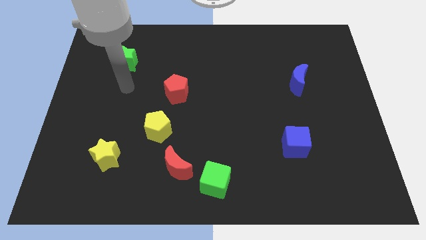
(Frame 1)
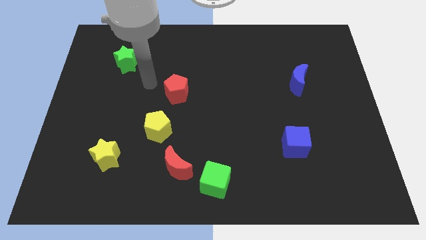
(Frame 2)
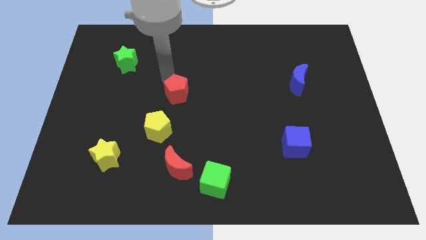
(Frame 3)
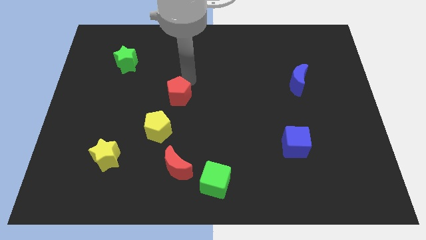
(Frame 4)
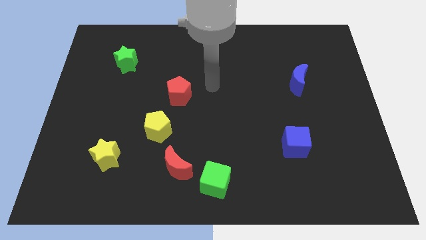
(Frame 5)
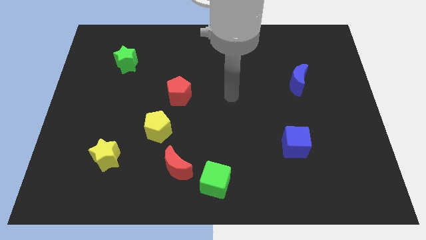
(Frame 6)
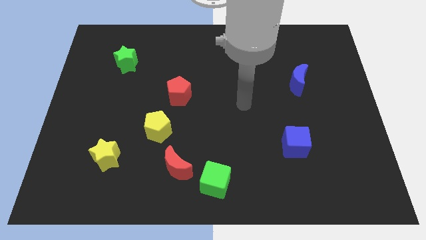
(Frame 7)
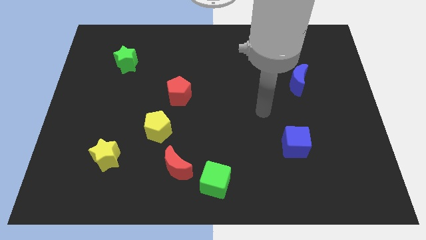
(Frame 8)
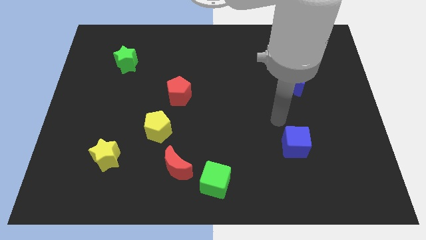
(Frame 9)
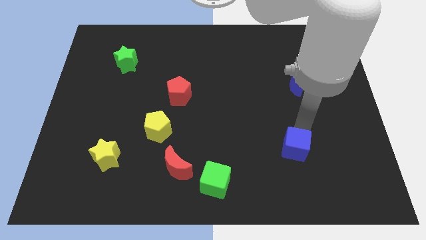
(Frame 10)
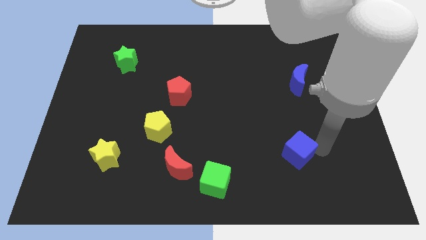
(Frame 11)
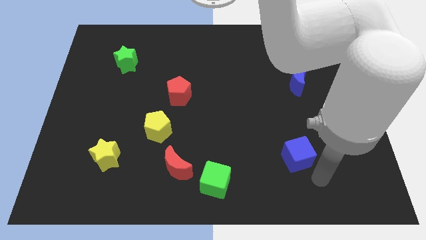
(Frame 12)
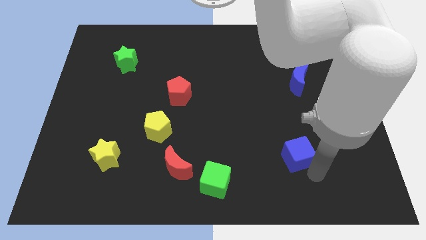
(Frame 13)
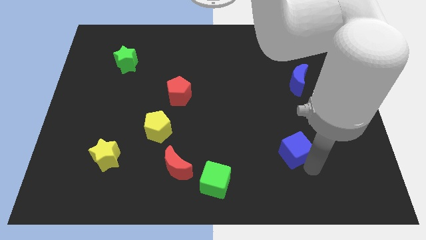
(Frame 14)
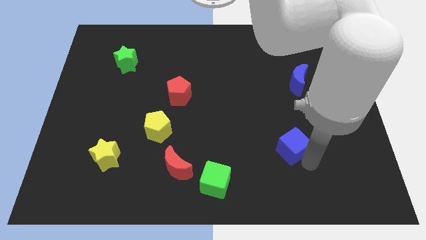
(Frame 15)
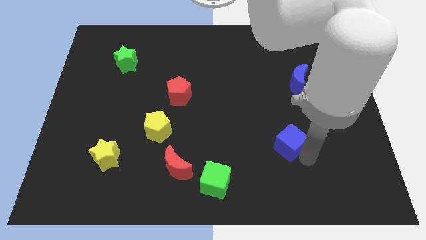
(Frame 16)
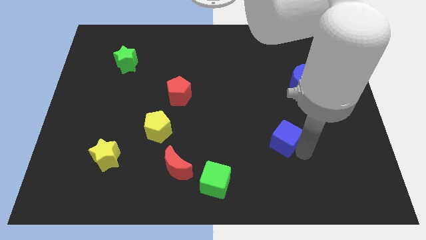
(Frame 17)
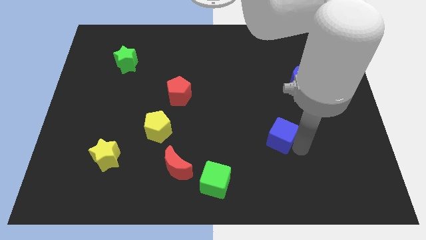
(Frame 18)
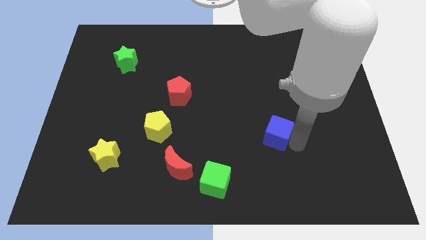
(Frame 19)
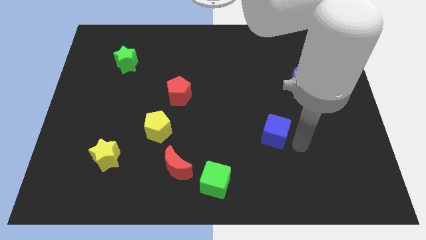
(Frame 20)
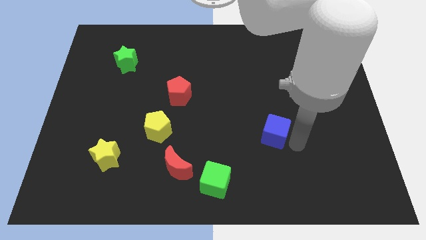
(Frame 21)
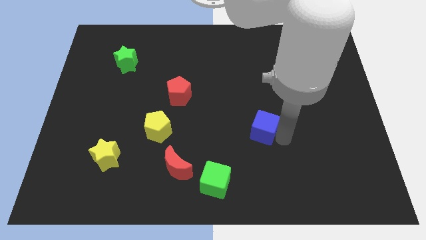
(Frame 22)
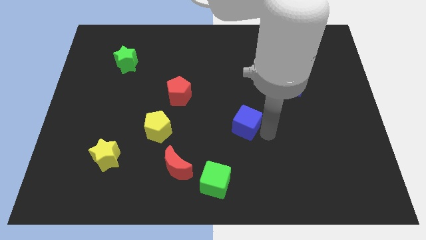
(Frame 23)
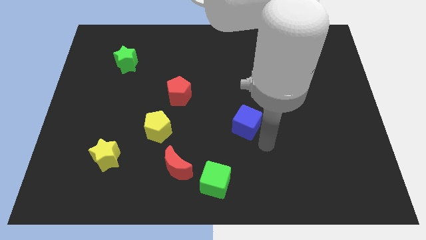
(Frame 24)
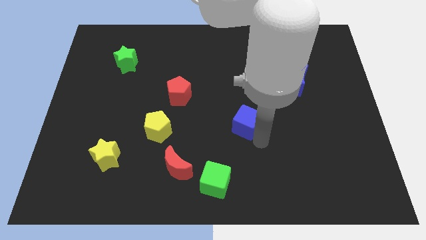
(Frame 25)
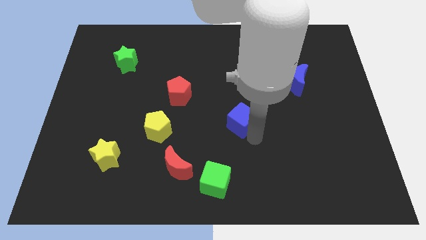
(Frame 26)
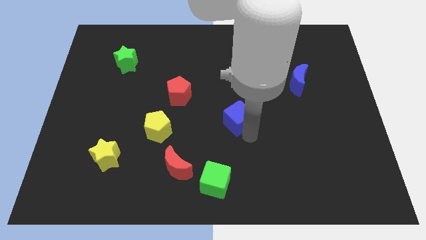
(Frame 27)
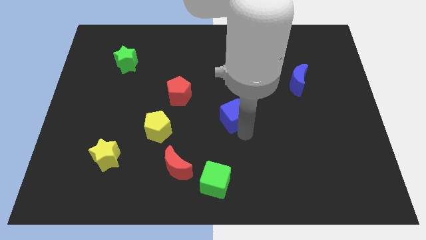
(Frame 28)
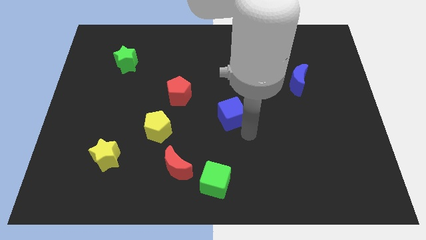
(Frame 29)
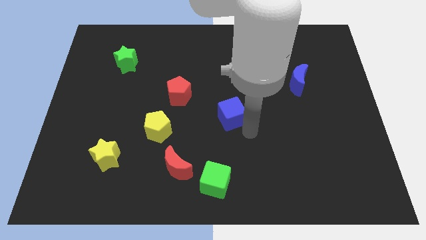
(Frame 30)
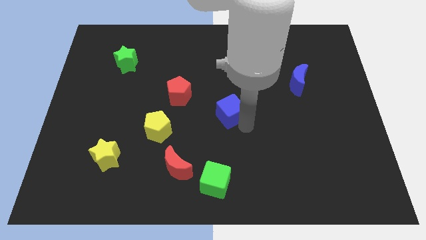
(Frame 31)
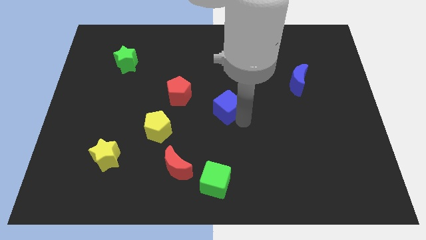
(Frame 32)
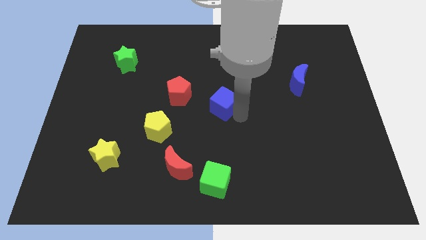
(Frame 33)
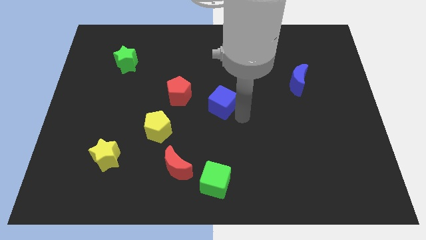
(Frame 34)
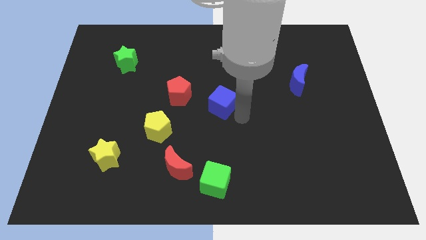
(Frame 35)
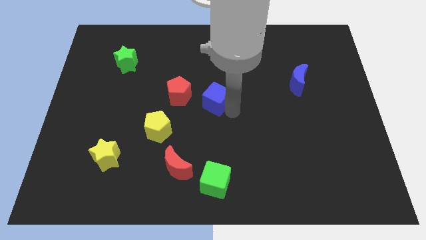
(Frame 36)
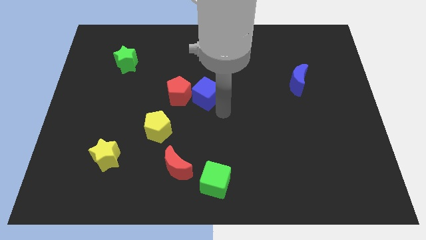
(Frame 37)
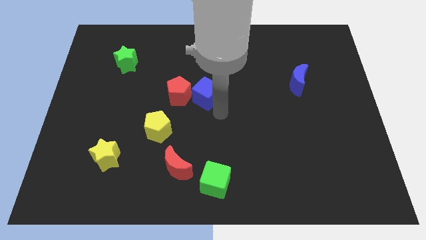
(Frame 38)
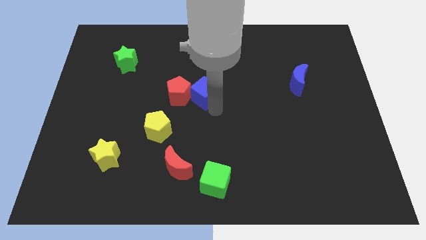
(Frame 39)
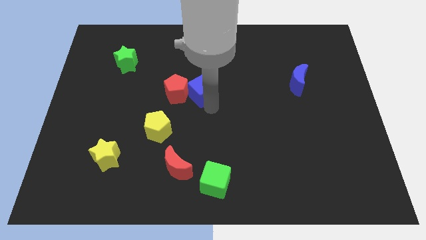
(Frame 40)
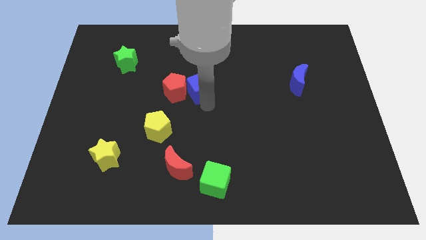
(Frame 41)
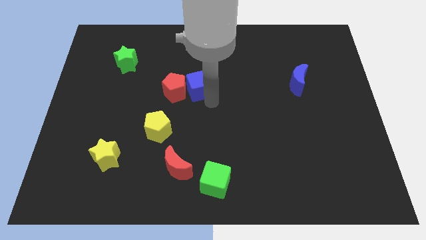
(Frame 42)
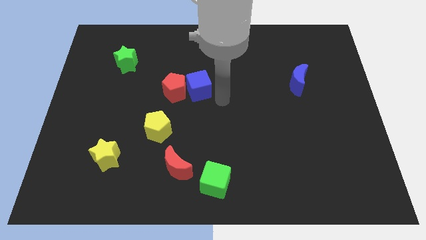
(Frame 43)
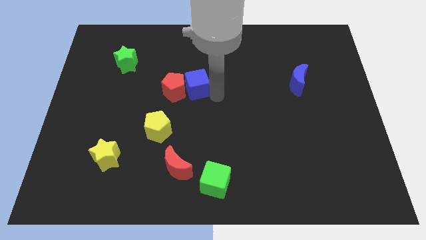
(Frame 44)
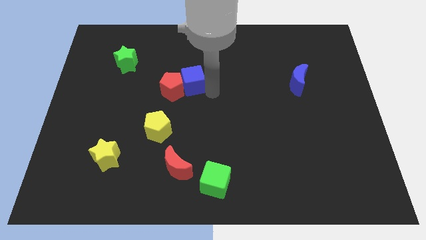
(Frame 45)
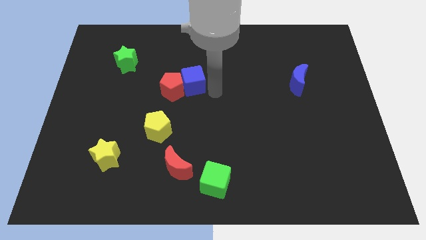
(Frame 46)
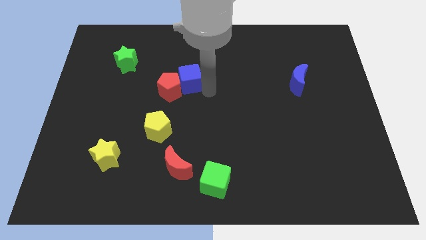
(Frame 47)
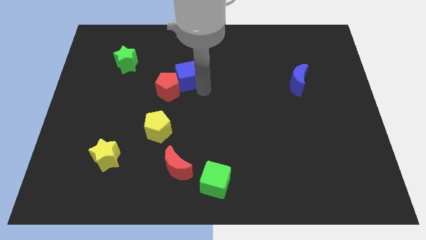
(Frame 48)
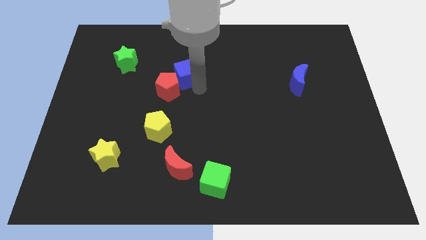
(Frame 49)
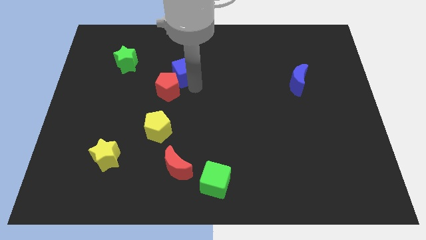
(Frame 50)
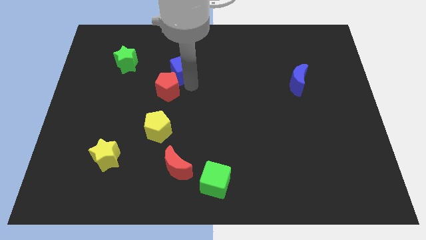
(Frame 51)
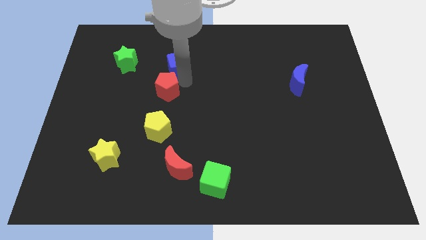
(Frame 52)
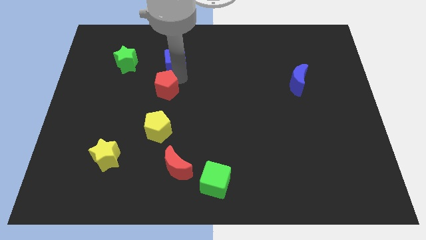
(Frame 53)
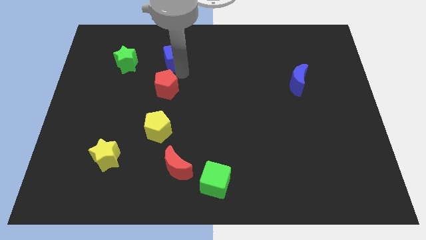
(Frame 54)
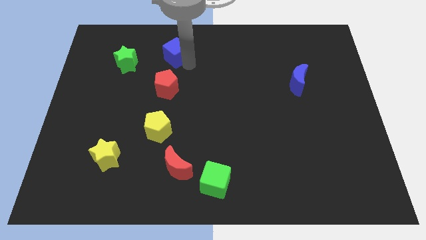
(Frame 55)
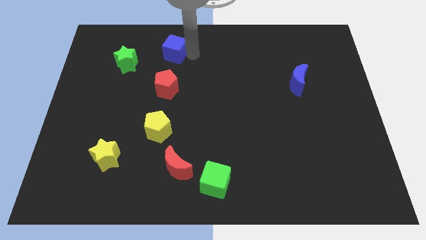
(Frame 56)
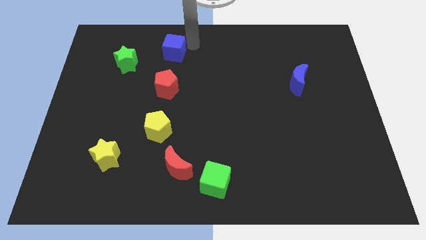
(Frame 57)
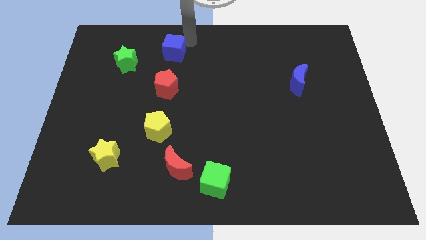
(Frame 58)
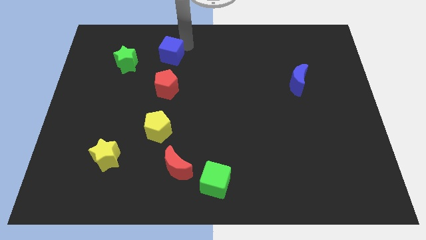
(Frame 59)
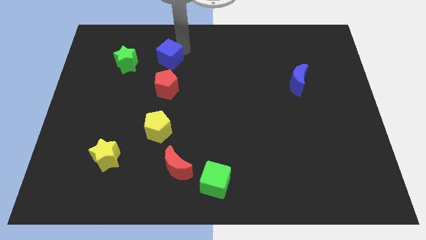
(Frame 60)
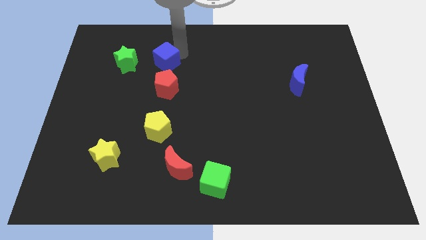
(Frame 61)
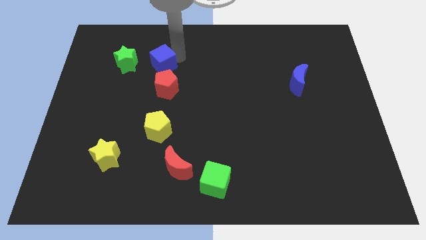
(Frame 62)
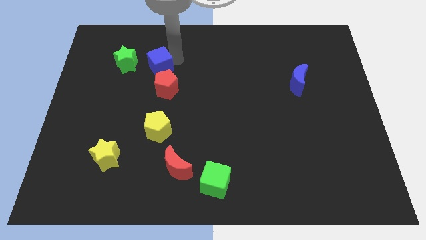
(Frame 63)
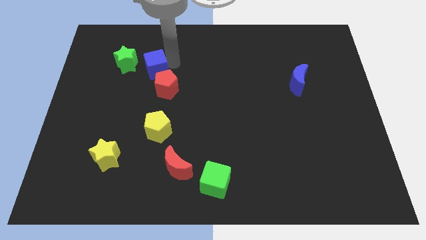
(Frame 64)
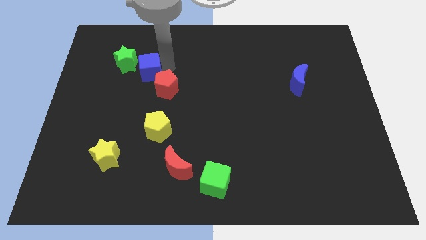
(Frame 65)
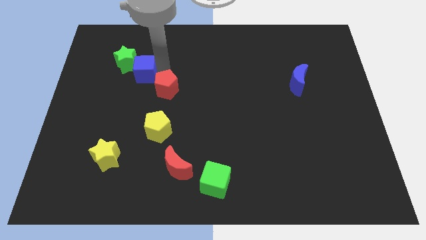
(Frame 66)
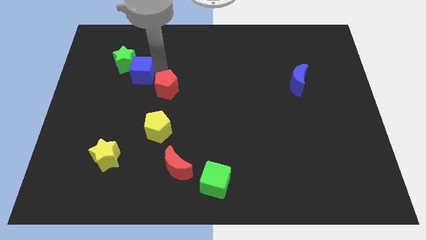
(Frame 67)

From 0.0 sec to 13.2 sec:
slide the blue cube close to the green star
